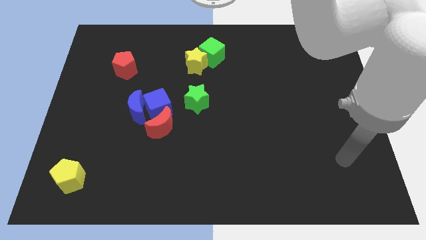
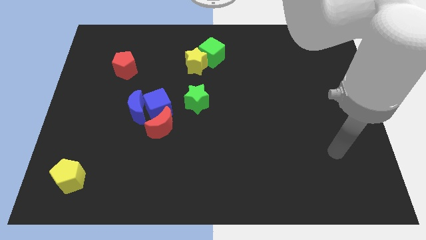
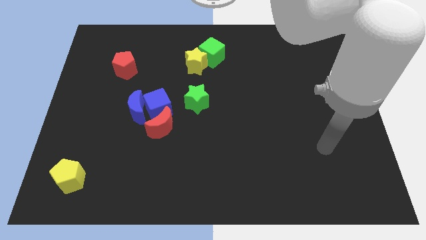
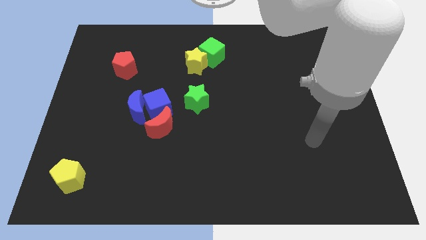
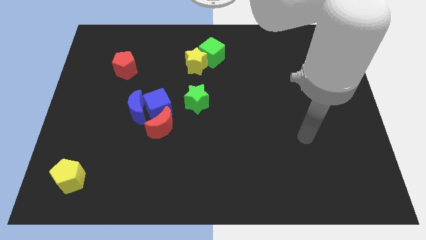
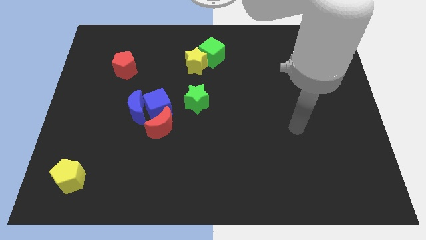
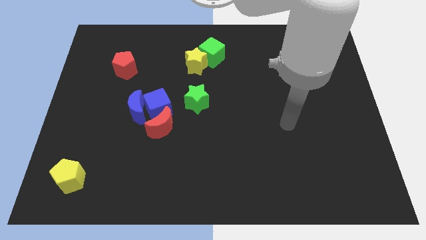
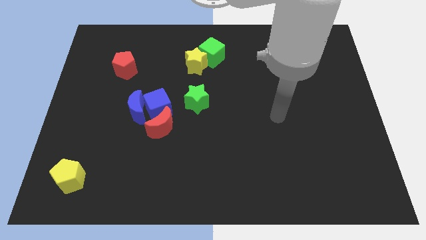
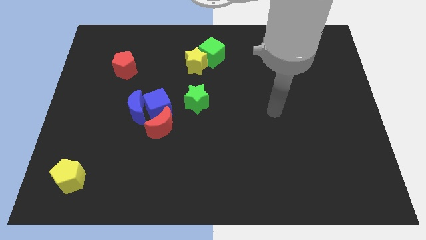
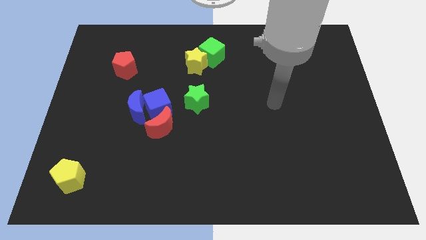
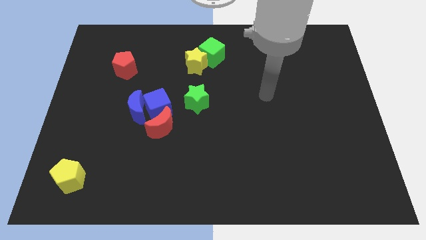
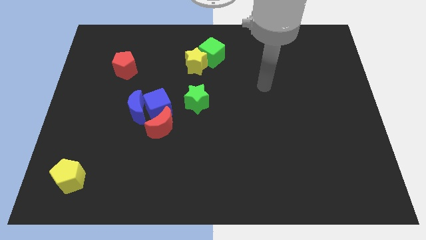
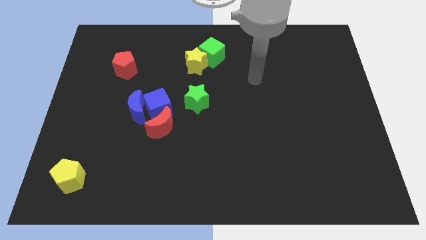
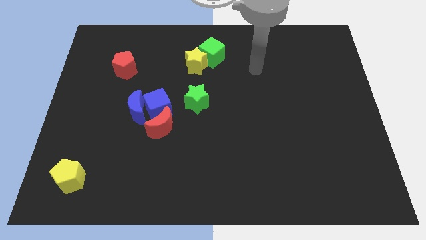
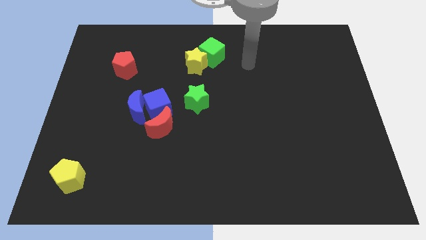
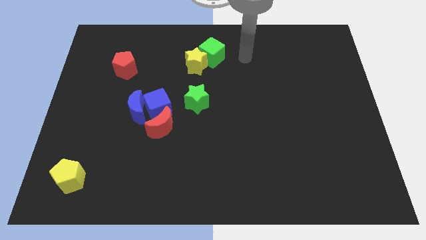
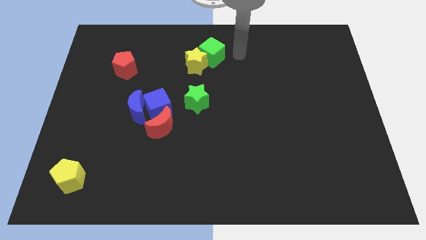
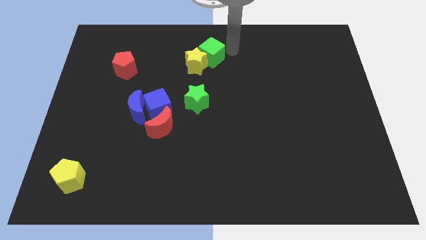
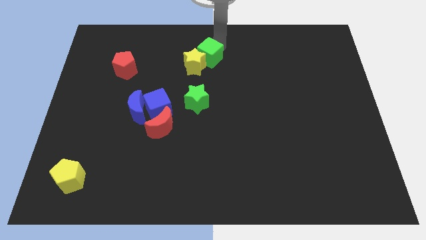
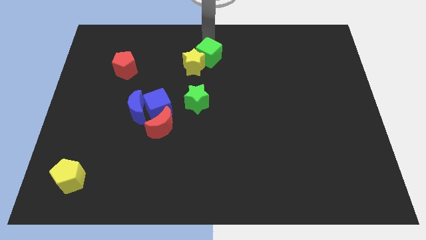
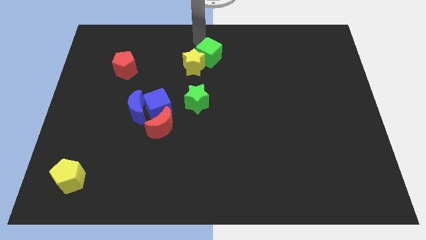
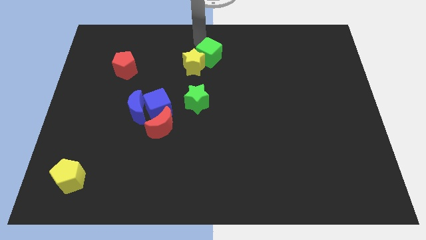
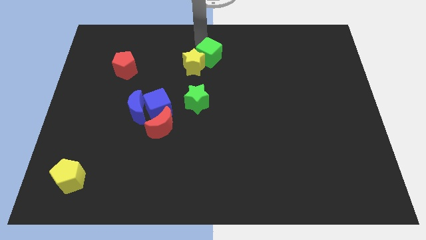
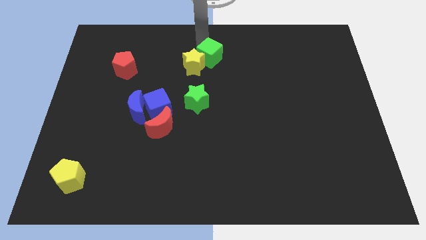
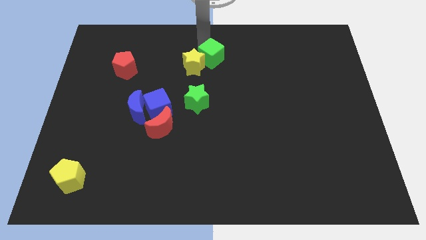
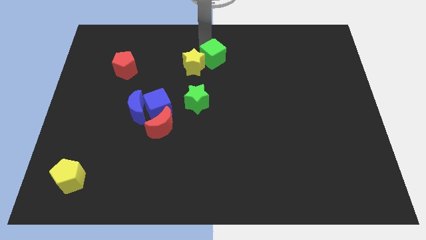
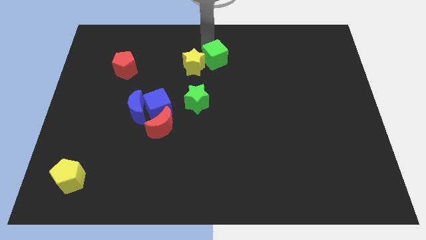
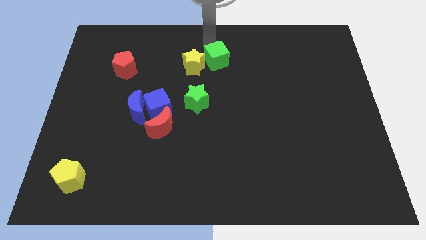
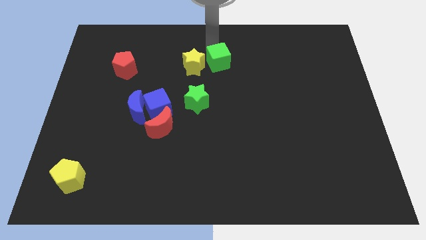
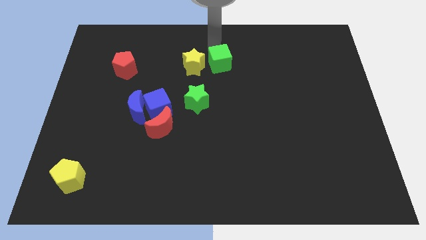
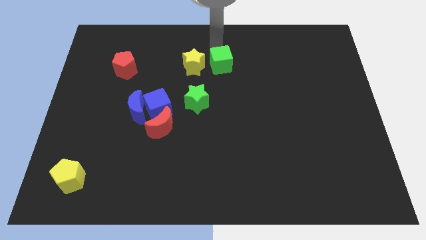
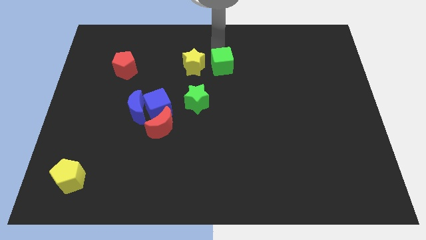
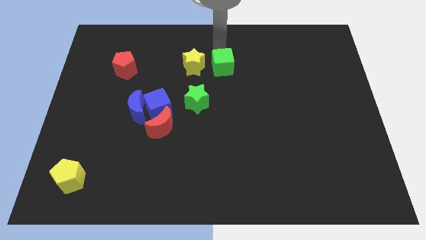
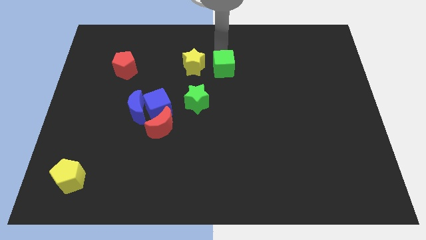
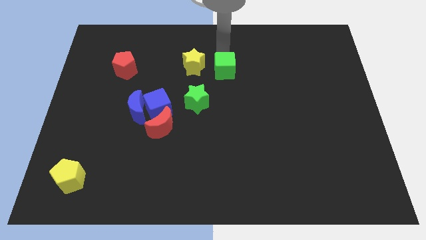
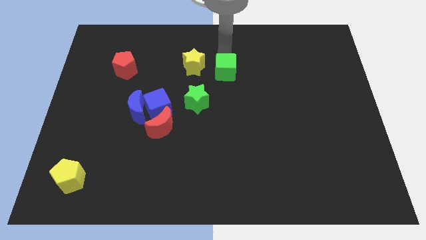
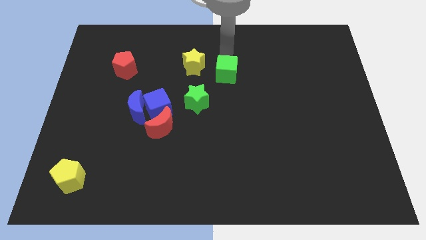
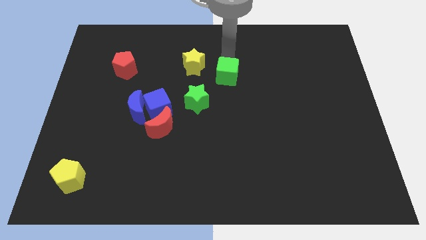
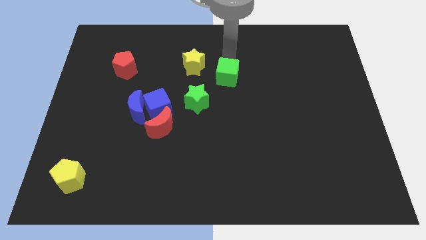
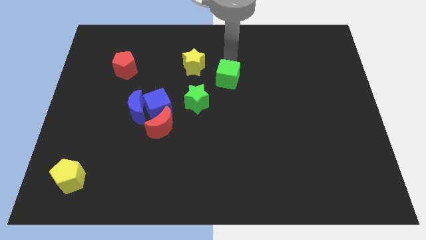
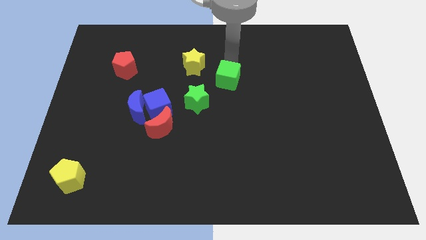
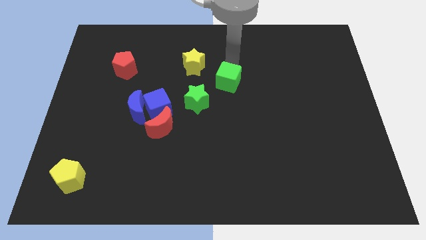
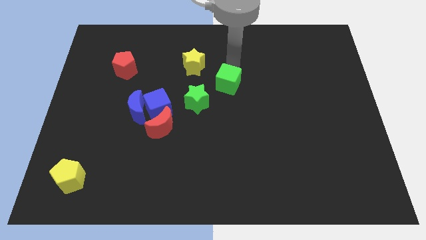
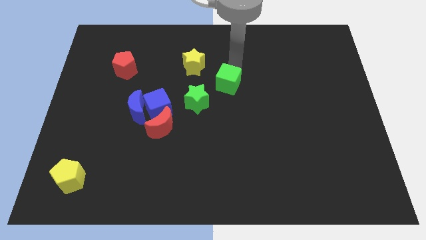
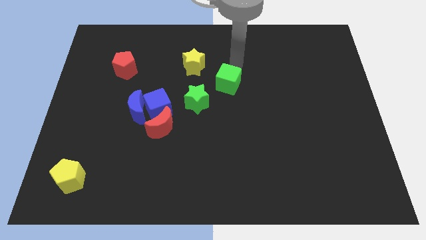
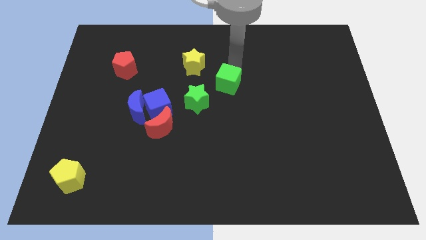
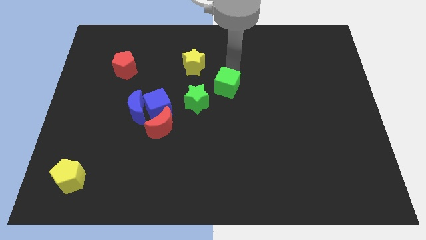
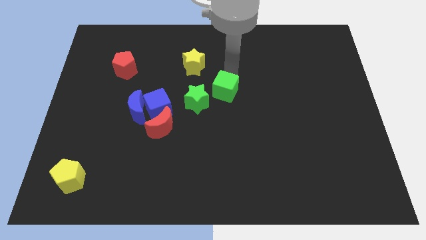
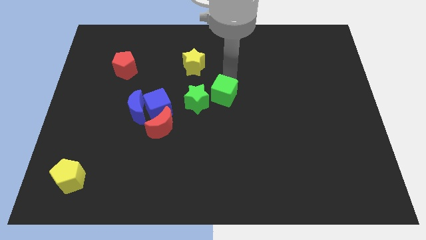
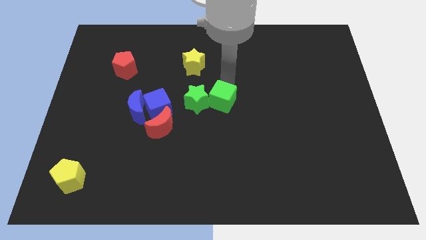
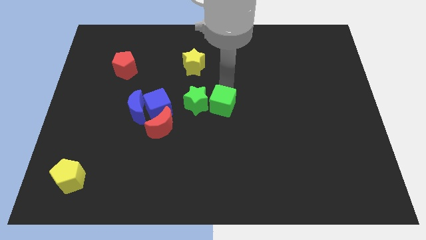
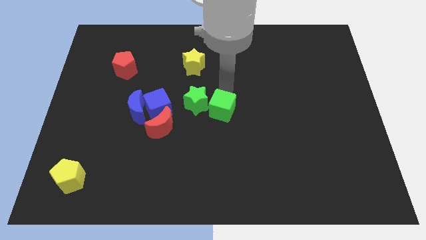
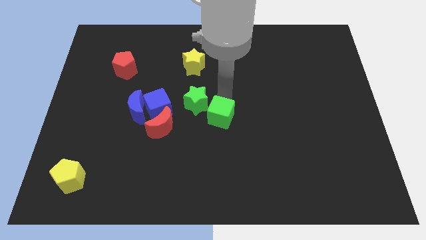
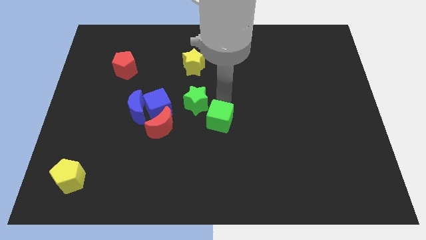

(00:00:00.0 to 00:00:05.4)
slide the green cube down

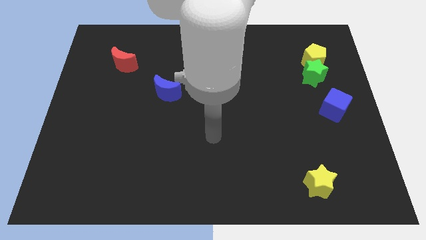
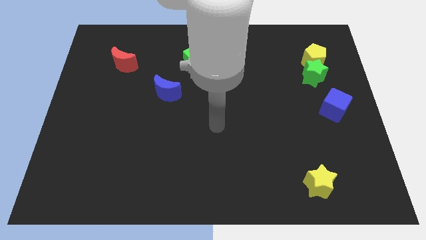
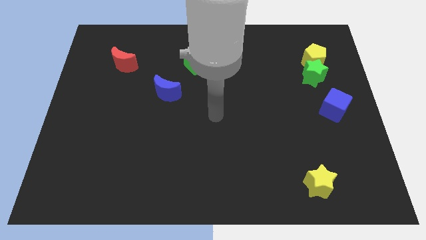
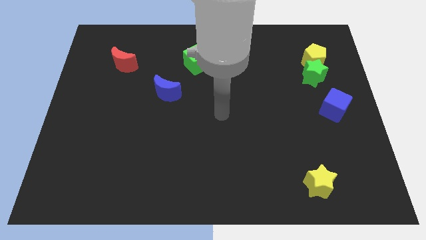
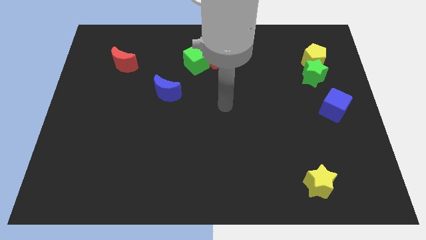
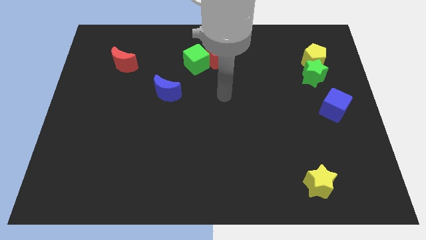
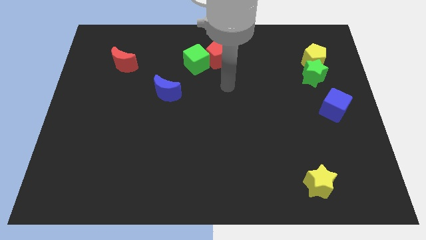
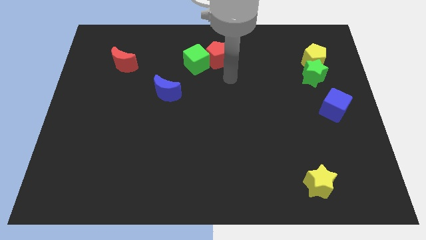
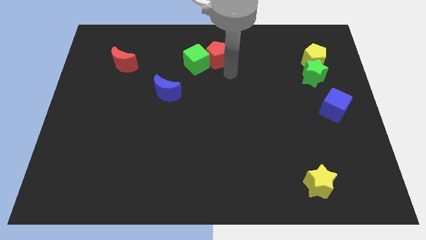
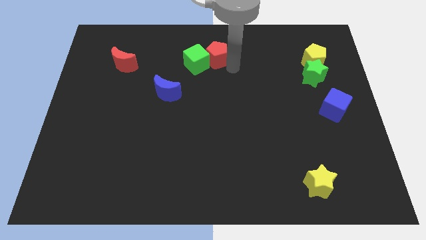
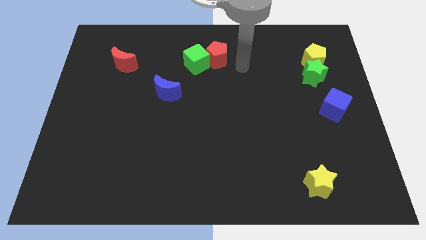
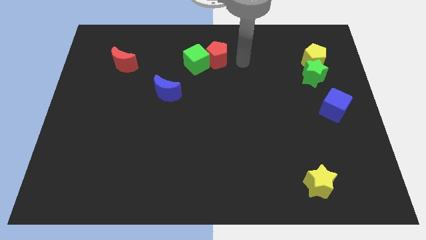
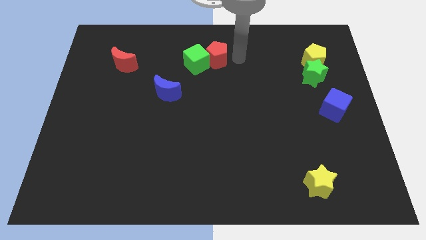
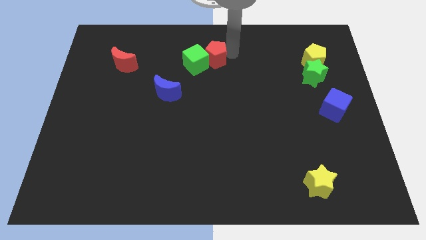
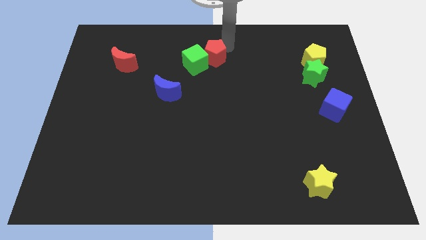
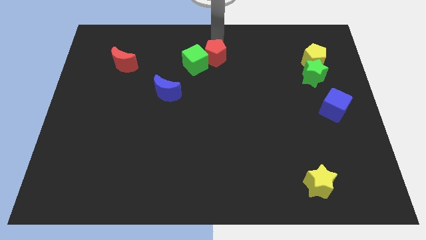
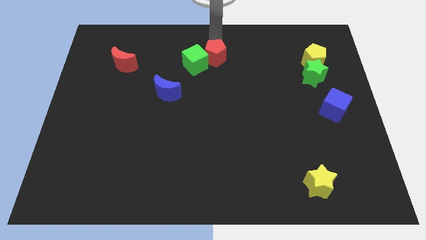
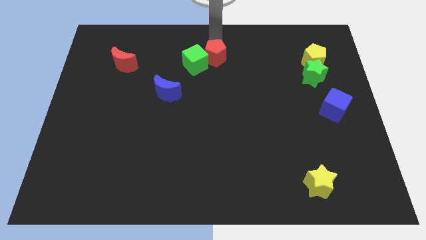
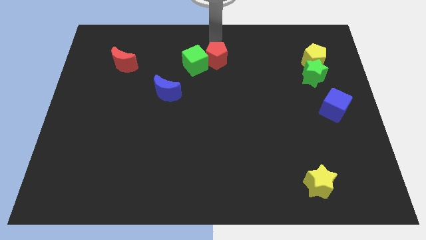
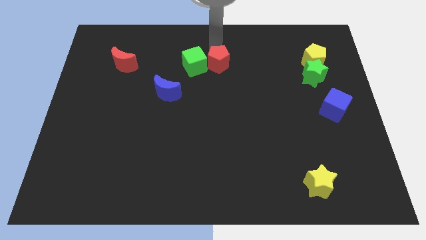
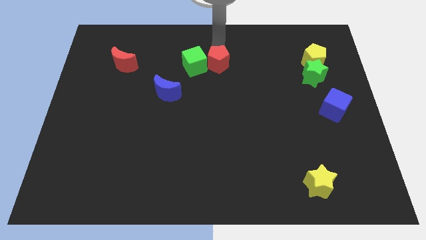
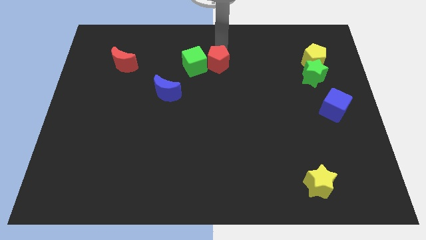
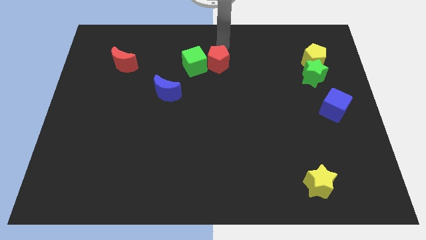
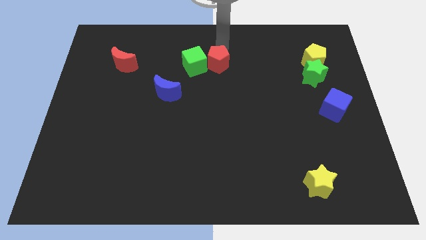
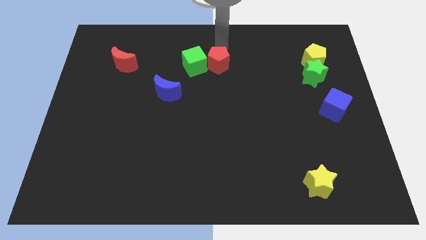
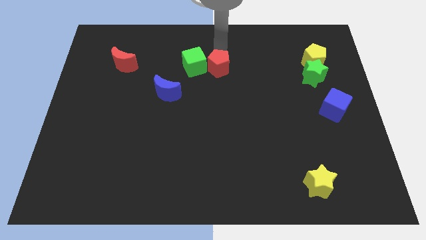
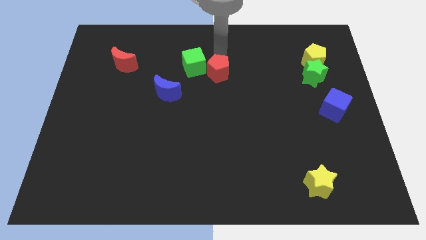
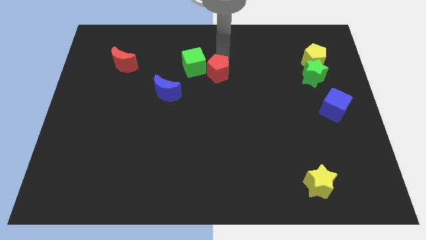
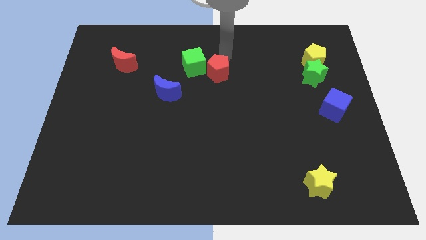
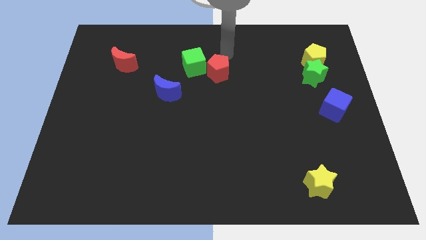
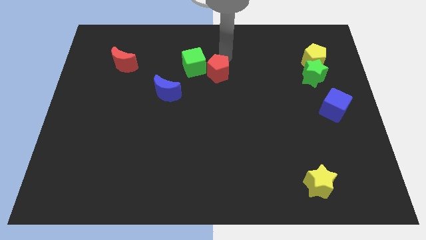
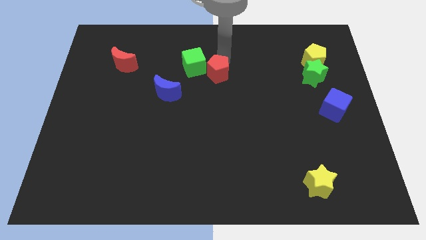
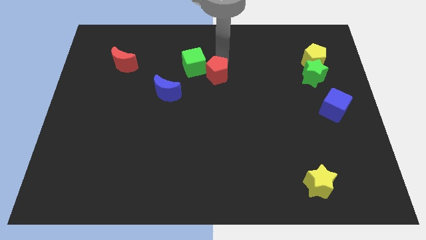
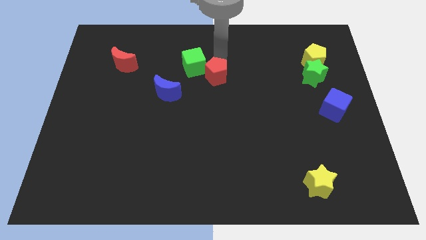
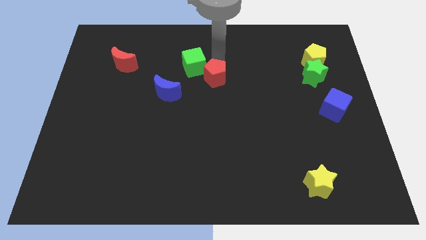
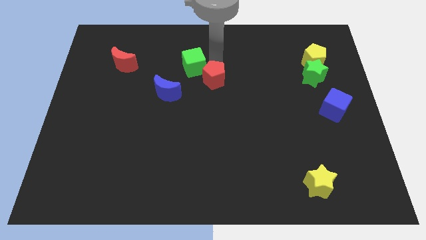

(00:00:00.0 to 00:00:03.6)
move the red pentagon slightly downwards
